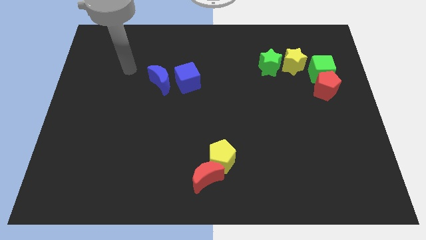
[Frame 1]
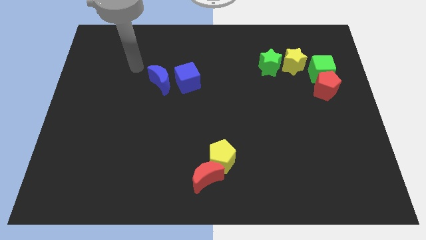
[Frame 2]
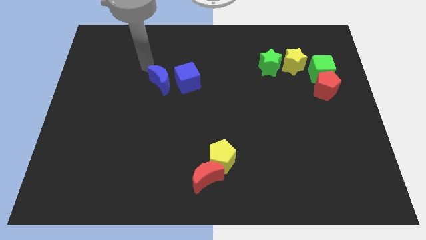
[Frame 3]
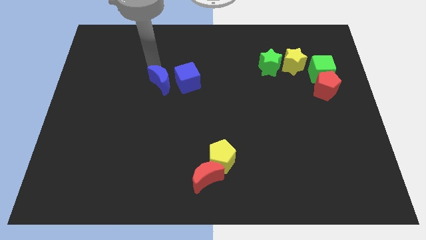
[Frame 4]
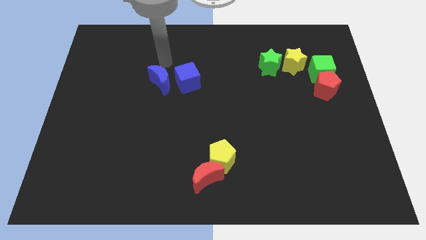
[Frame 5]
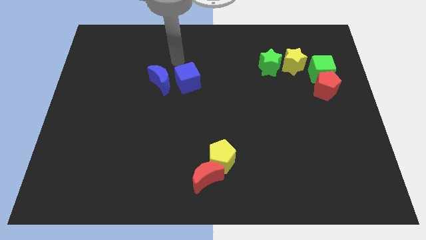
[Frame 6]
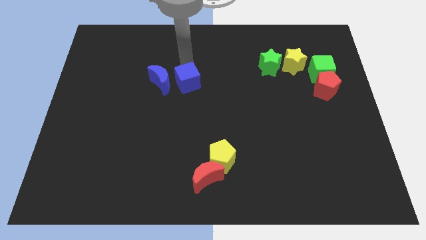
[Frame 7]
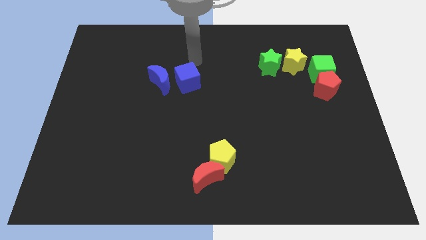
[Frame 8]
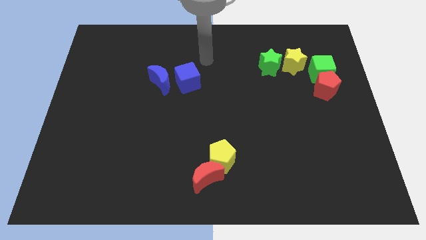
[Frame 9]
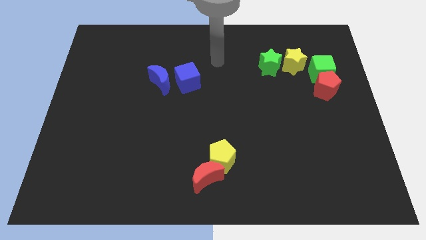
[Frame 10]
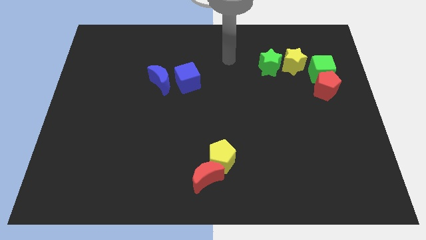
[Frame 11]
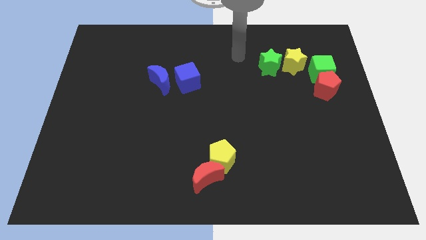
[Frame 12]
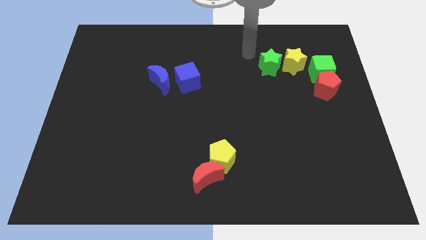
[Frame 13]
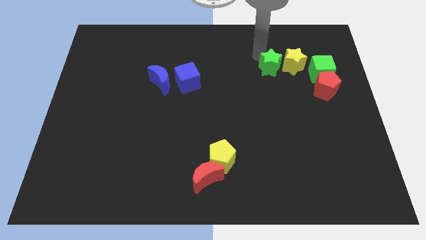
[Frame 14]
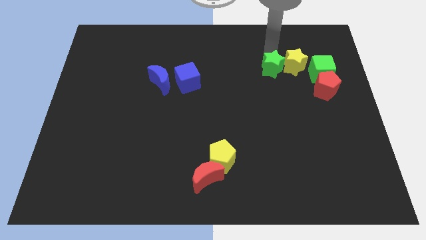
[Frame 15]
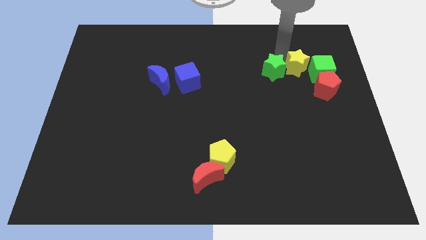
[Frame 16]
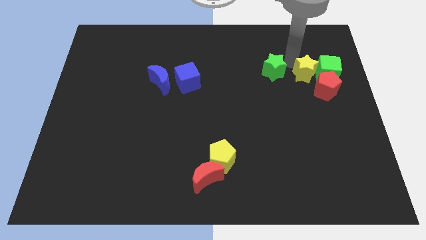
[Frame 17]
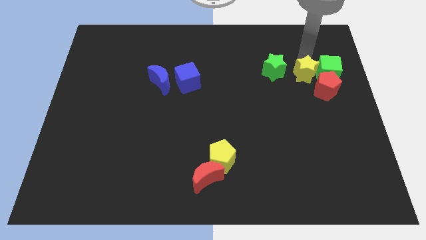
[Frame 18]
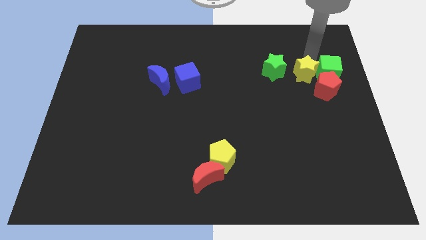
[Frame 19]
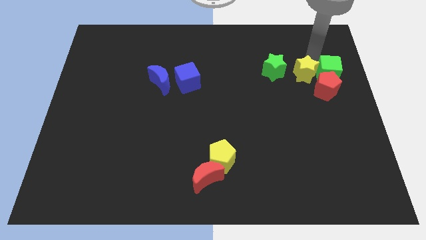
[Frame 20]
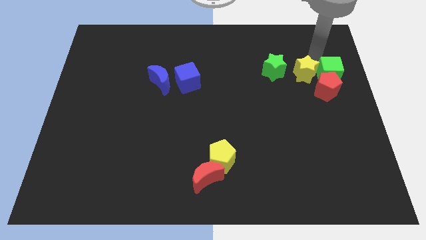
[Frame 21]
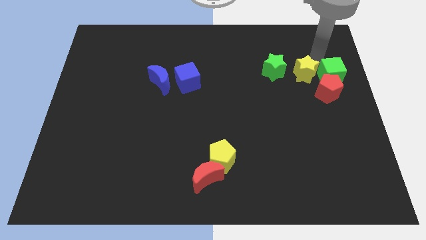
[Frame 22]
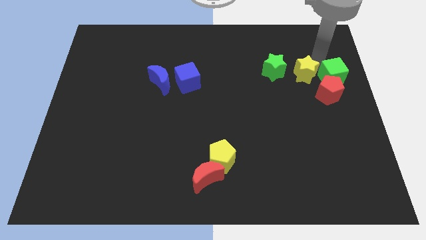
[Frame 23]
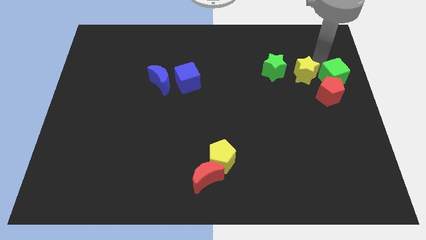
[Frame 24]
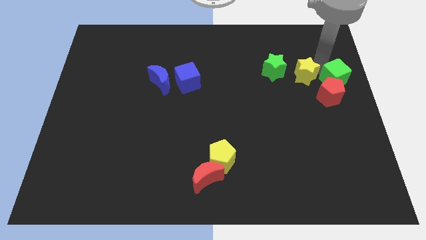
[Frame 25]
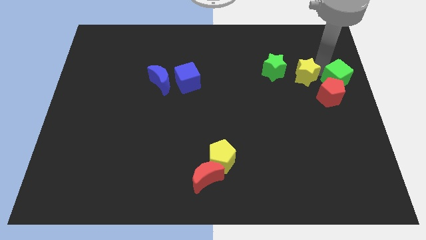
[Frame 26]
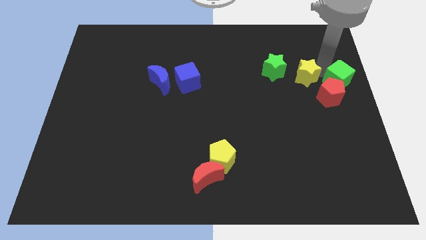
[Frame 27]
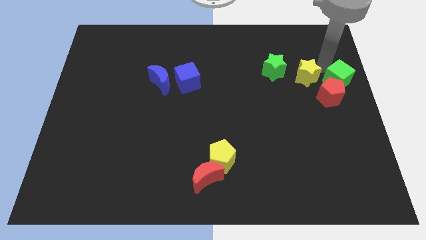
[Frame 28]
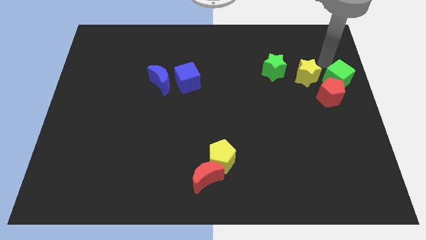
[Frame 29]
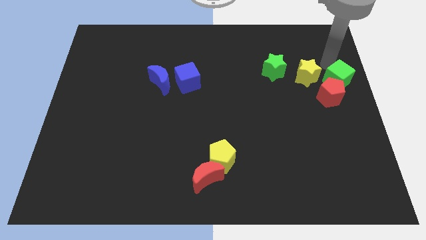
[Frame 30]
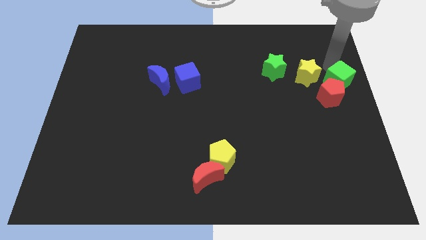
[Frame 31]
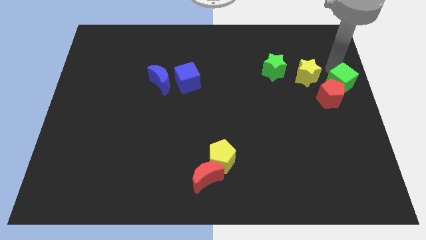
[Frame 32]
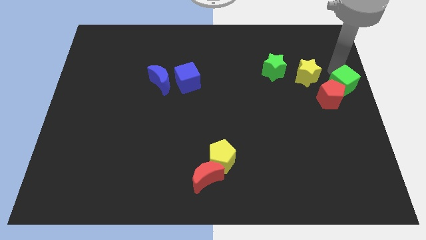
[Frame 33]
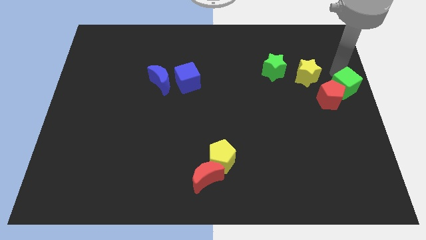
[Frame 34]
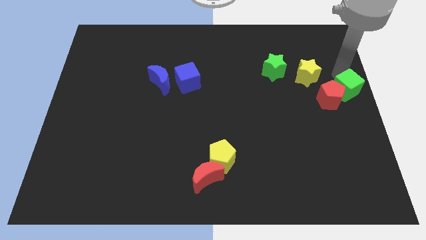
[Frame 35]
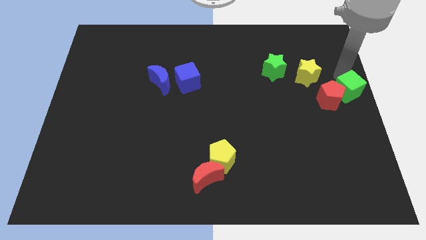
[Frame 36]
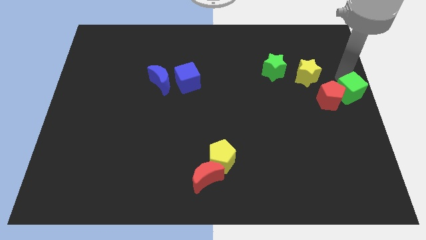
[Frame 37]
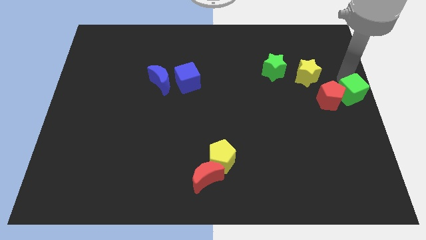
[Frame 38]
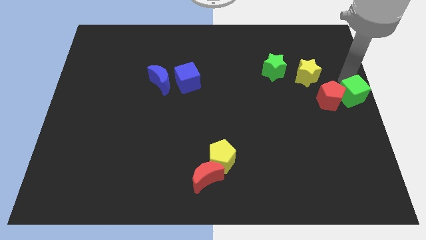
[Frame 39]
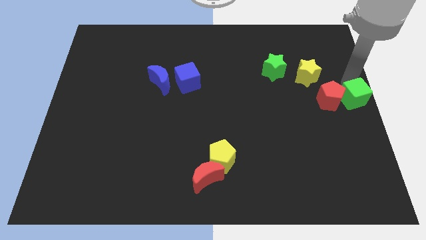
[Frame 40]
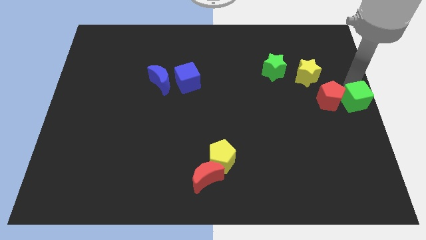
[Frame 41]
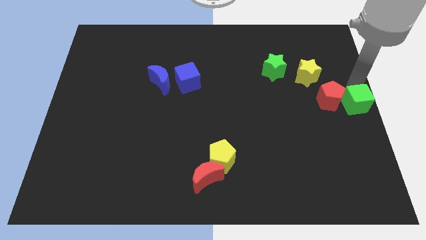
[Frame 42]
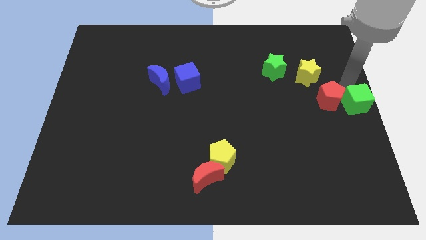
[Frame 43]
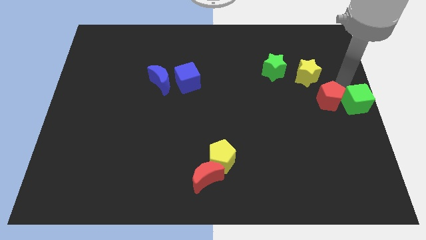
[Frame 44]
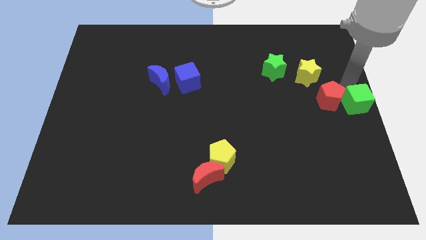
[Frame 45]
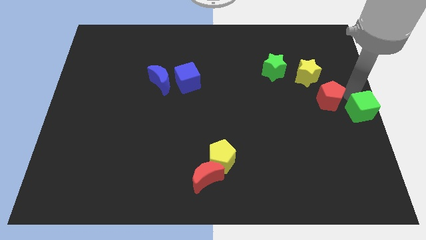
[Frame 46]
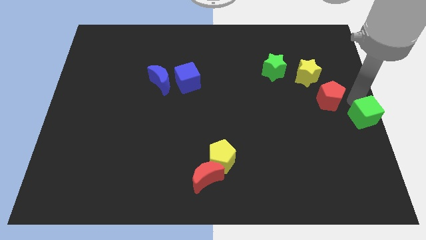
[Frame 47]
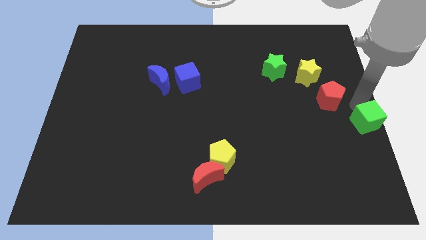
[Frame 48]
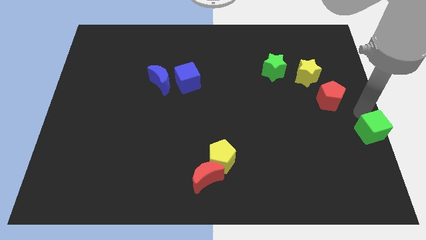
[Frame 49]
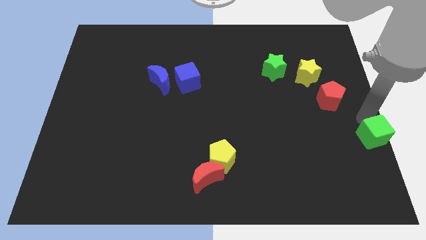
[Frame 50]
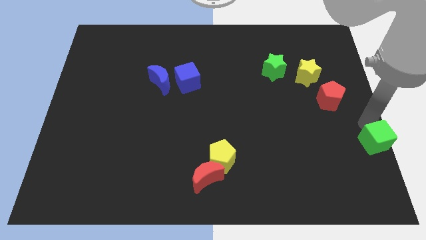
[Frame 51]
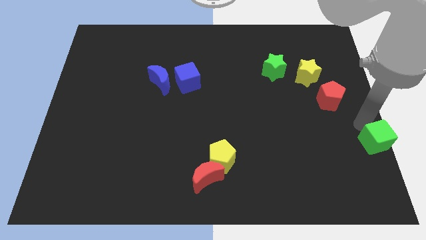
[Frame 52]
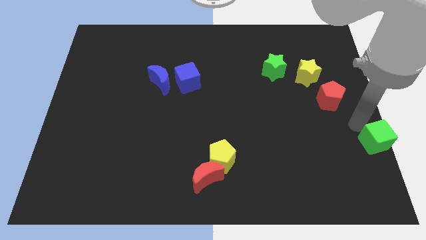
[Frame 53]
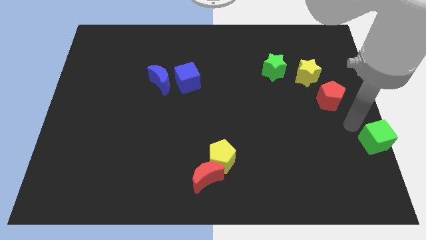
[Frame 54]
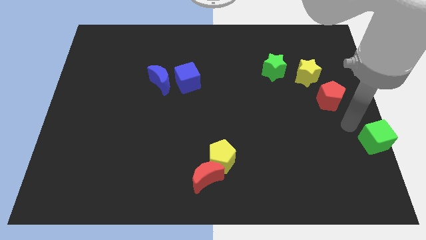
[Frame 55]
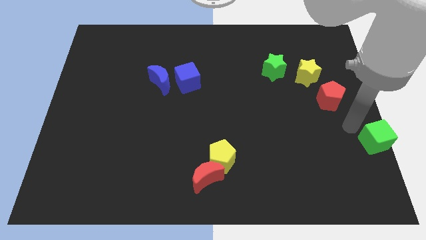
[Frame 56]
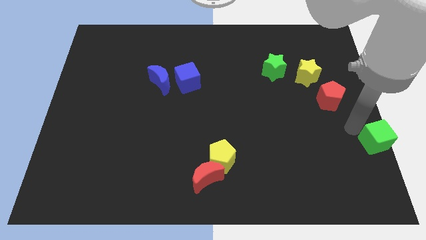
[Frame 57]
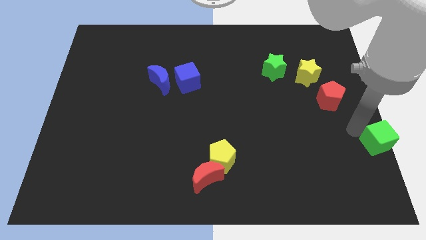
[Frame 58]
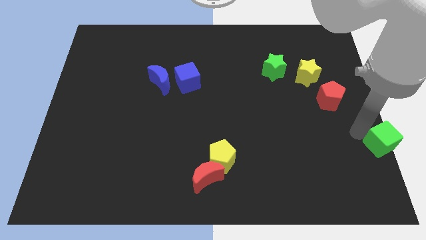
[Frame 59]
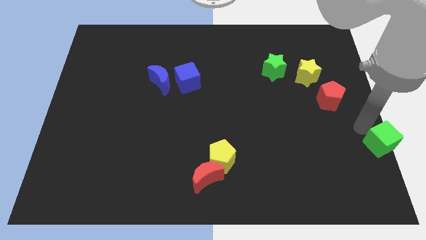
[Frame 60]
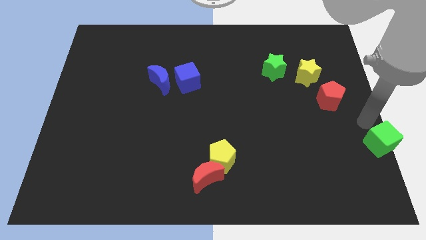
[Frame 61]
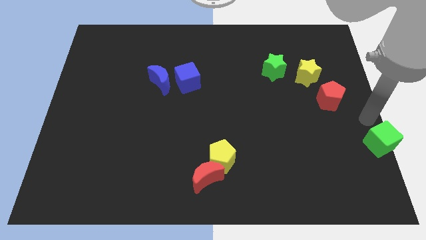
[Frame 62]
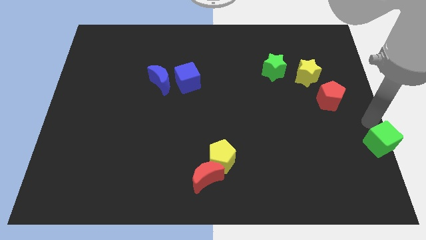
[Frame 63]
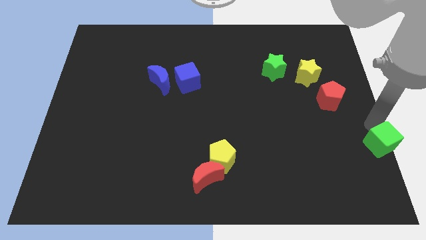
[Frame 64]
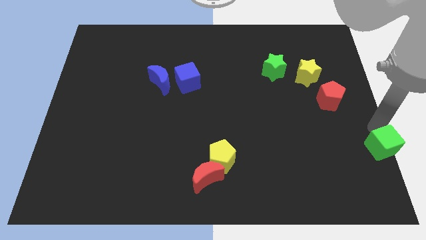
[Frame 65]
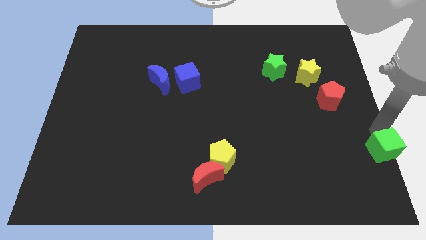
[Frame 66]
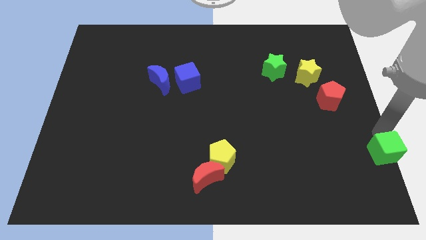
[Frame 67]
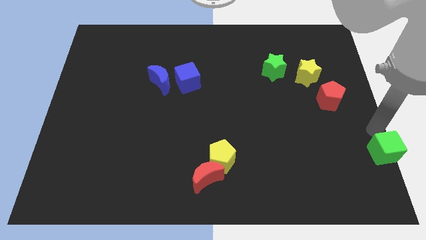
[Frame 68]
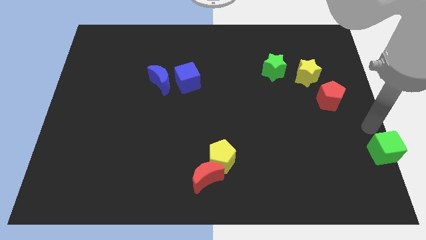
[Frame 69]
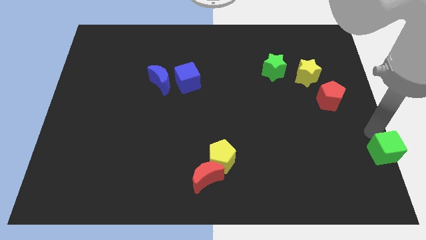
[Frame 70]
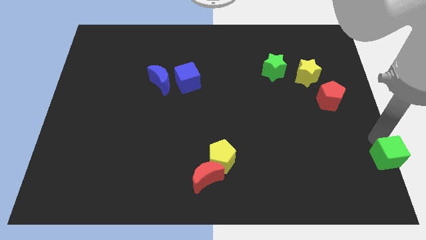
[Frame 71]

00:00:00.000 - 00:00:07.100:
move the green cube to the bottom right
